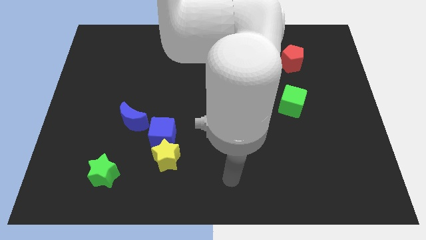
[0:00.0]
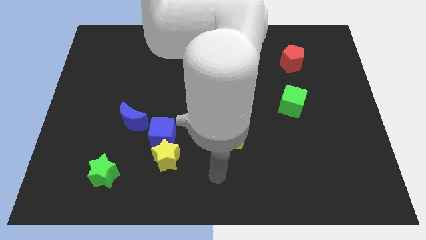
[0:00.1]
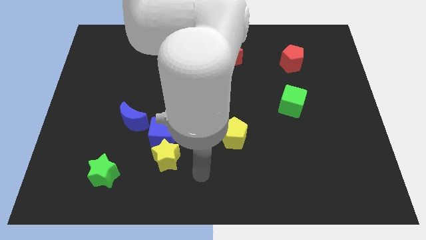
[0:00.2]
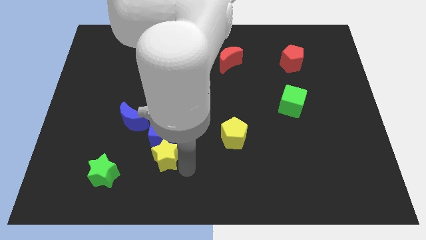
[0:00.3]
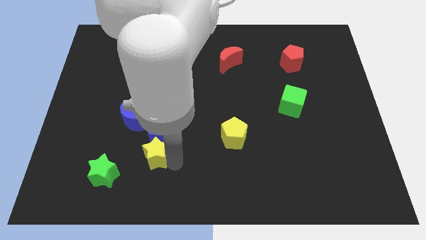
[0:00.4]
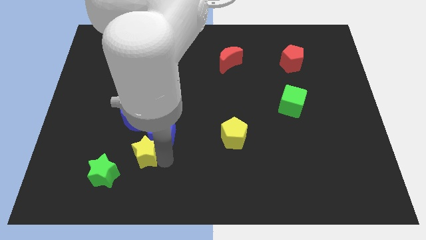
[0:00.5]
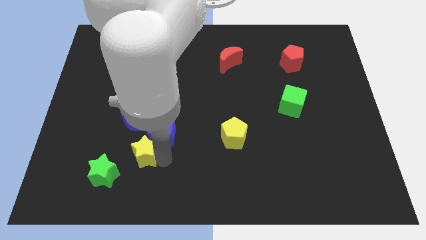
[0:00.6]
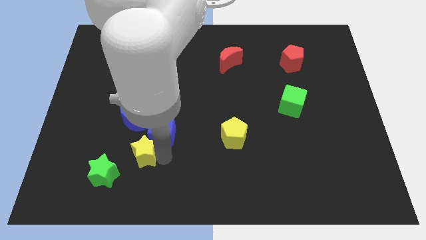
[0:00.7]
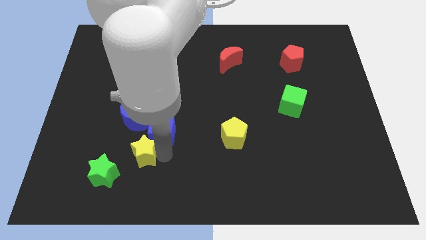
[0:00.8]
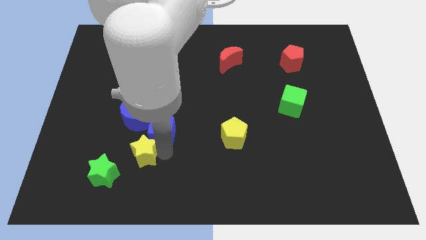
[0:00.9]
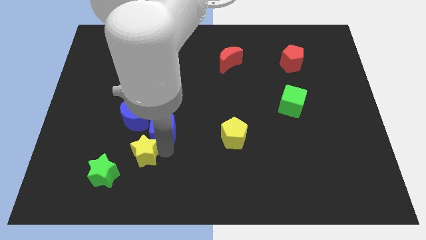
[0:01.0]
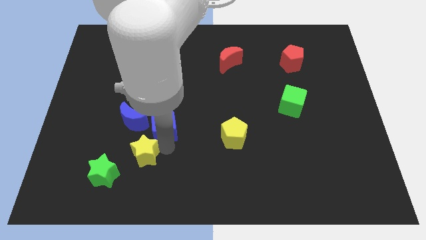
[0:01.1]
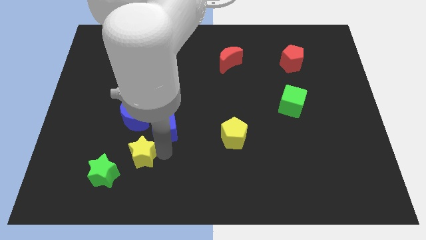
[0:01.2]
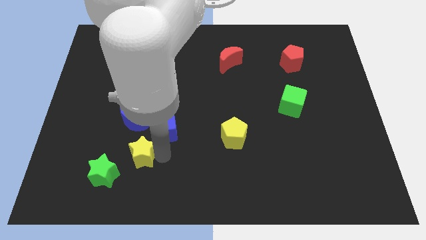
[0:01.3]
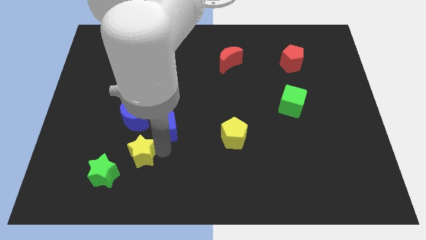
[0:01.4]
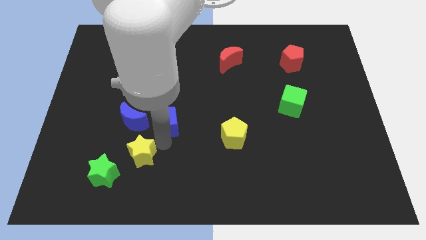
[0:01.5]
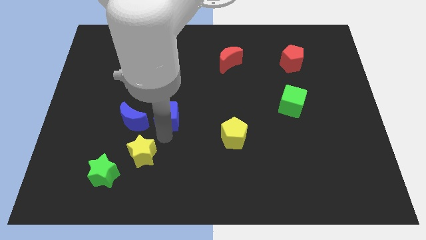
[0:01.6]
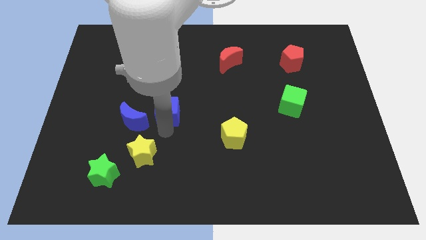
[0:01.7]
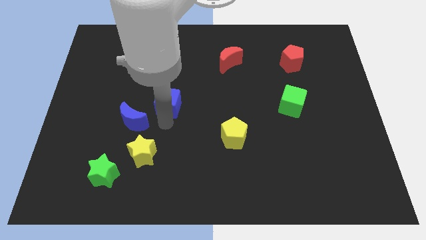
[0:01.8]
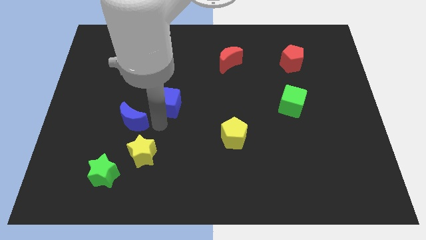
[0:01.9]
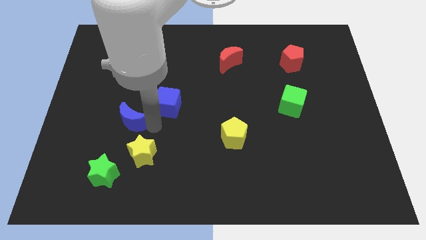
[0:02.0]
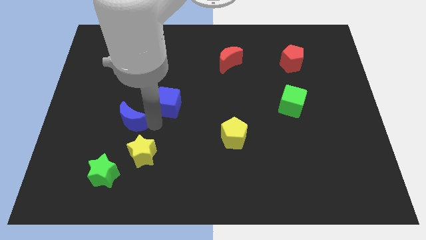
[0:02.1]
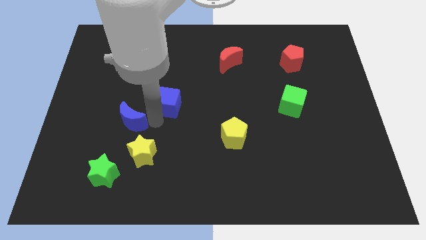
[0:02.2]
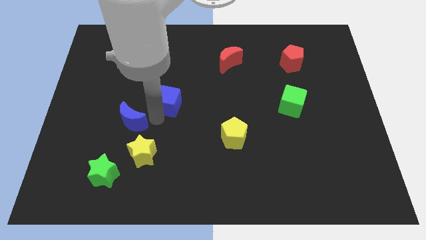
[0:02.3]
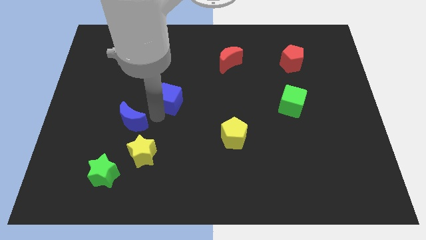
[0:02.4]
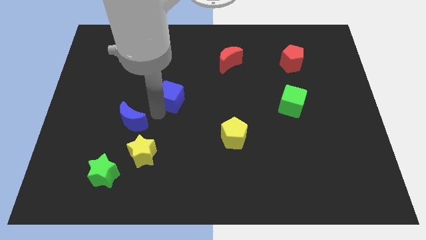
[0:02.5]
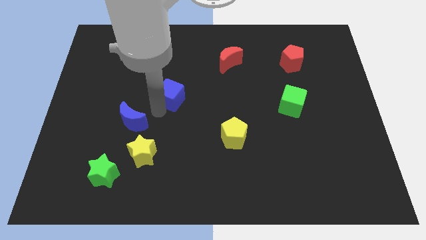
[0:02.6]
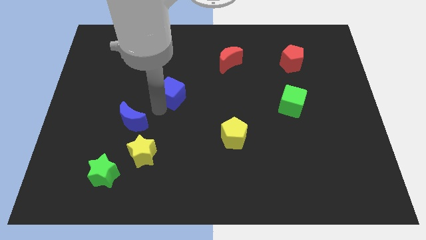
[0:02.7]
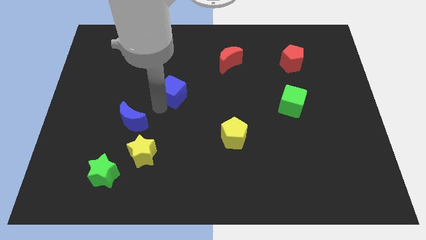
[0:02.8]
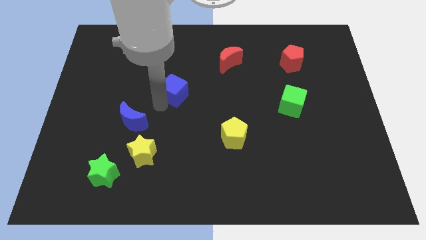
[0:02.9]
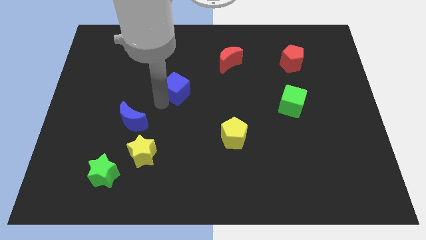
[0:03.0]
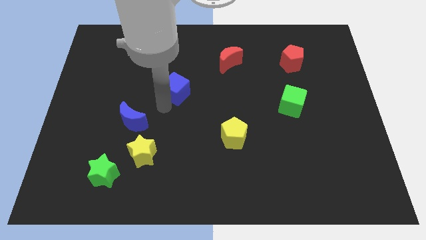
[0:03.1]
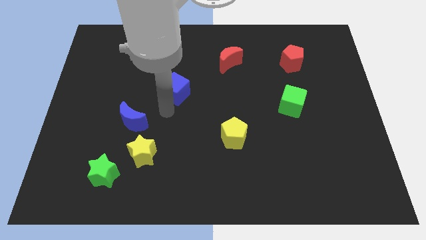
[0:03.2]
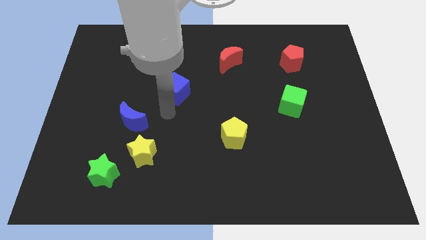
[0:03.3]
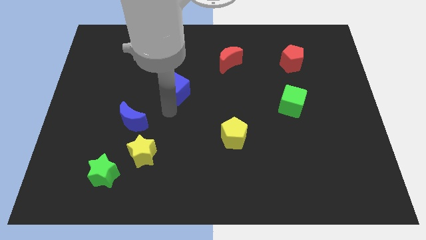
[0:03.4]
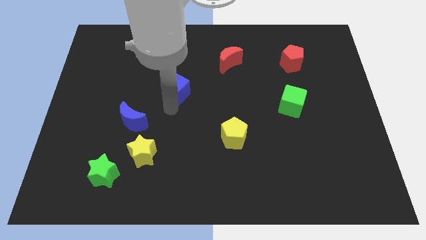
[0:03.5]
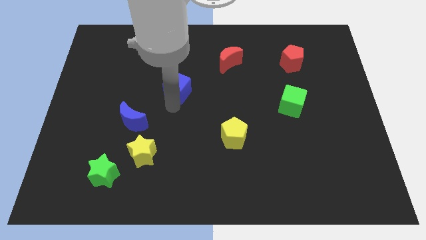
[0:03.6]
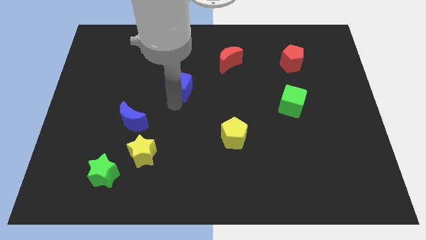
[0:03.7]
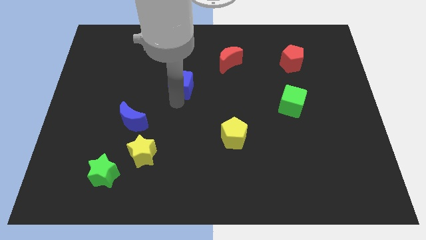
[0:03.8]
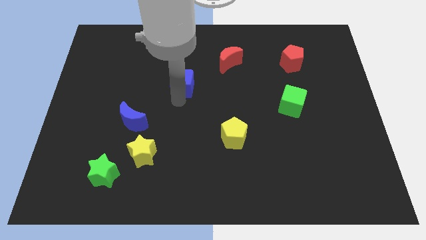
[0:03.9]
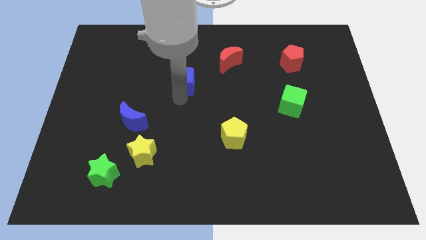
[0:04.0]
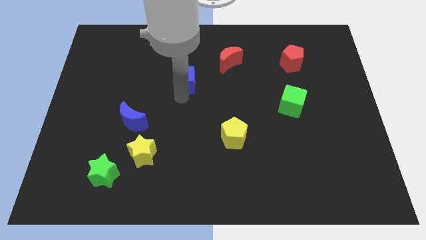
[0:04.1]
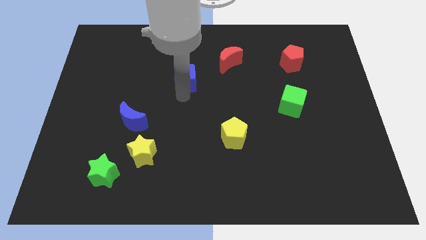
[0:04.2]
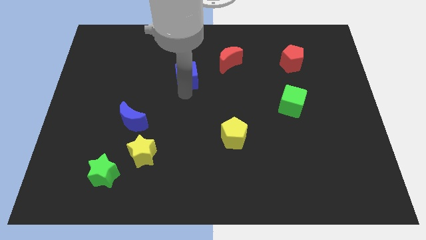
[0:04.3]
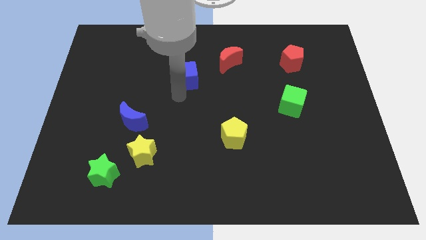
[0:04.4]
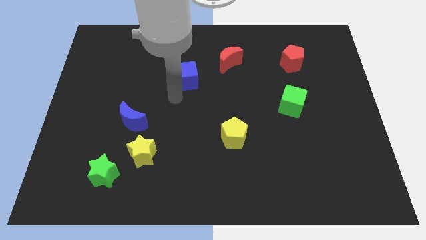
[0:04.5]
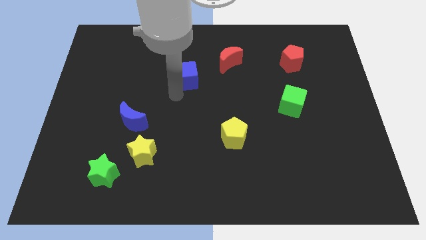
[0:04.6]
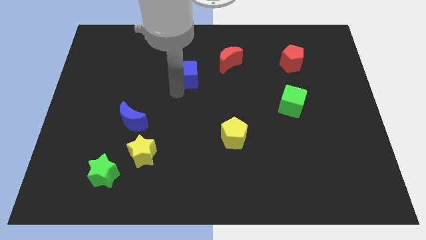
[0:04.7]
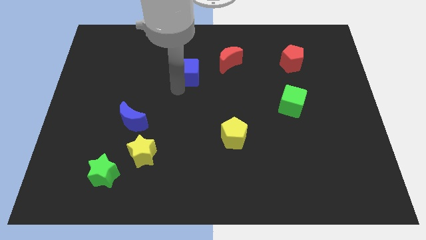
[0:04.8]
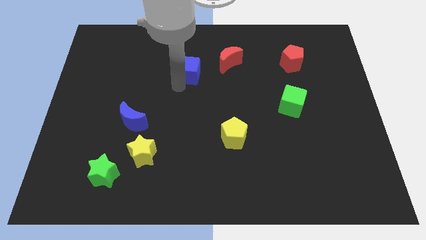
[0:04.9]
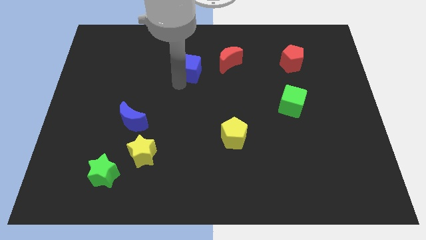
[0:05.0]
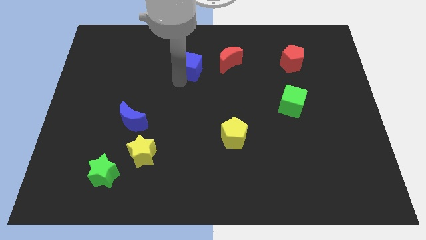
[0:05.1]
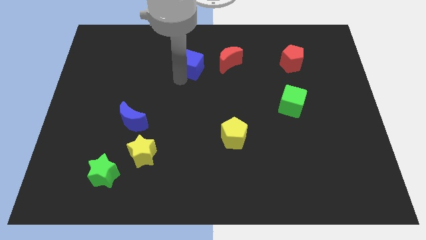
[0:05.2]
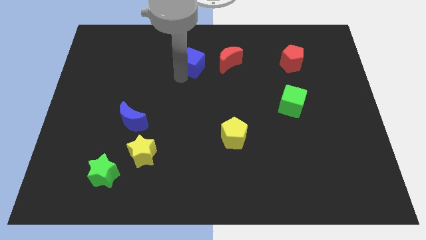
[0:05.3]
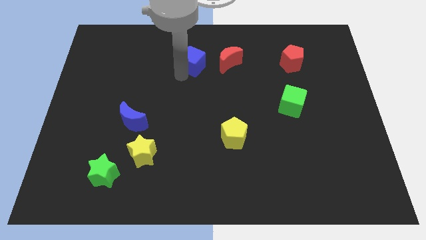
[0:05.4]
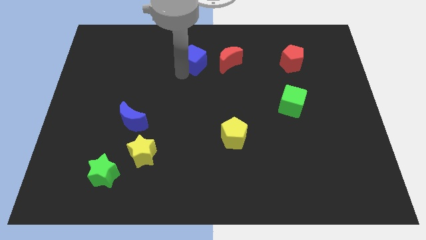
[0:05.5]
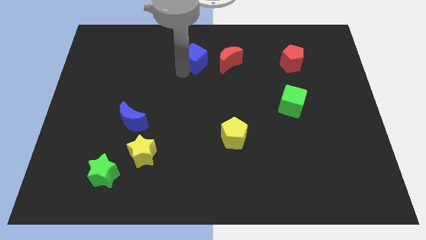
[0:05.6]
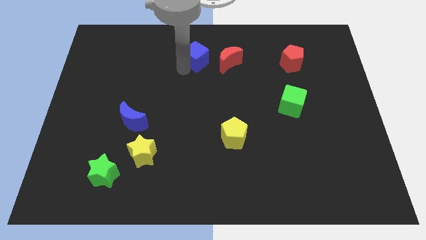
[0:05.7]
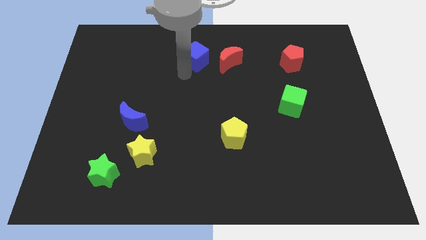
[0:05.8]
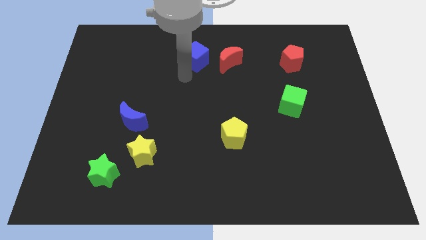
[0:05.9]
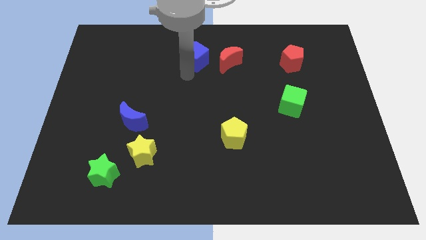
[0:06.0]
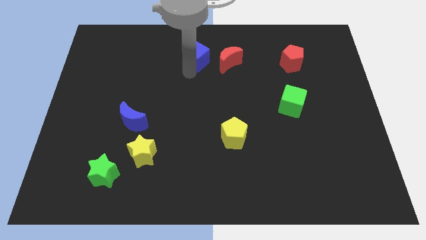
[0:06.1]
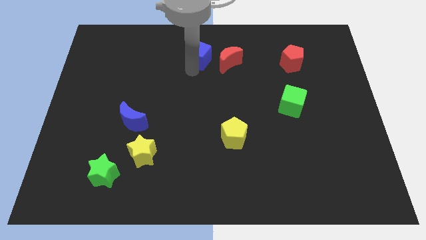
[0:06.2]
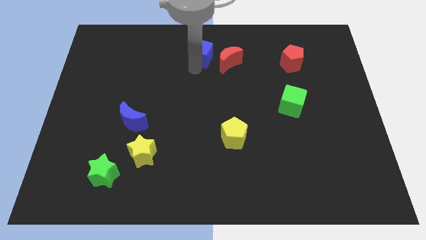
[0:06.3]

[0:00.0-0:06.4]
move the blue cube to the towards your base

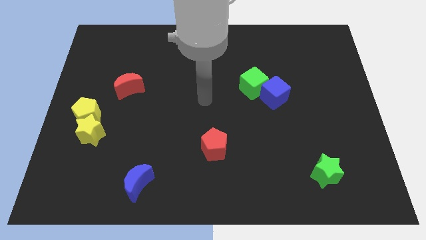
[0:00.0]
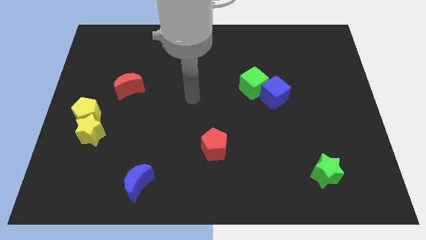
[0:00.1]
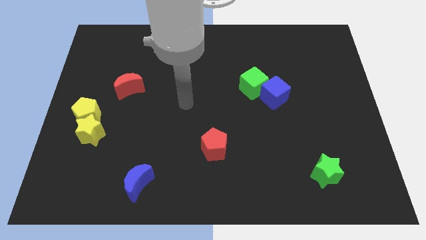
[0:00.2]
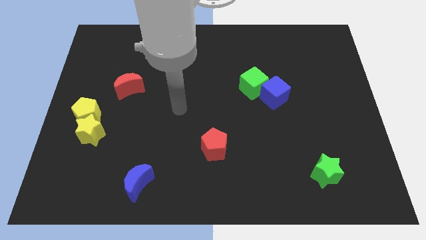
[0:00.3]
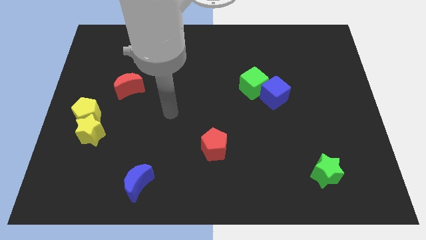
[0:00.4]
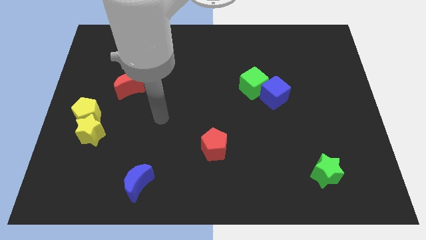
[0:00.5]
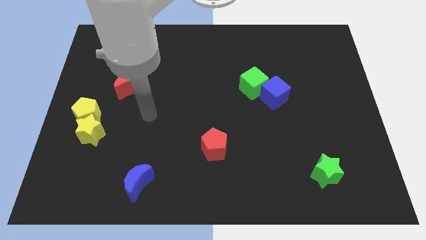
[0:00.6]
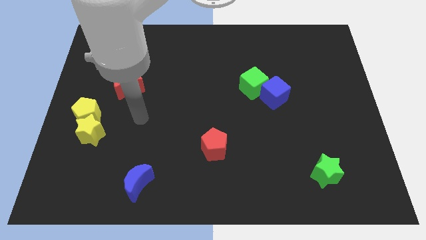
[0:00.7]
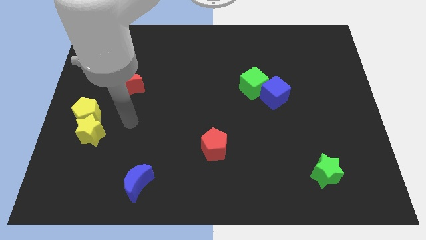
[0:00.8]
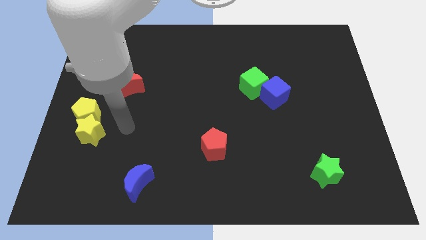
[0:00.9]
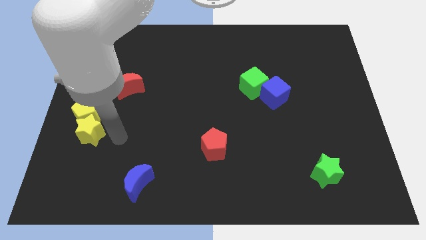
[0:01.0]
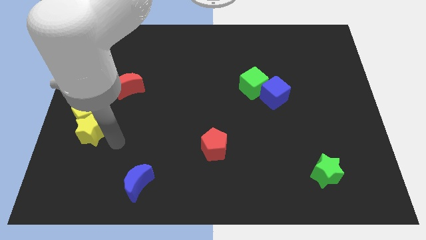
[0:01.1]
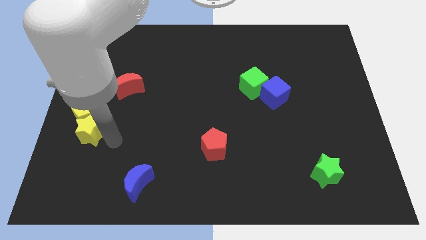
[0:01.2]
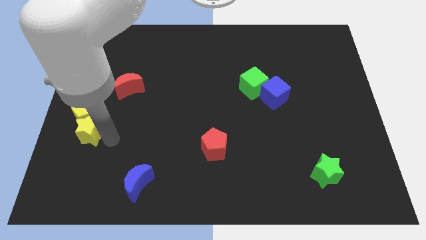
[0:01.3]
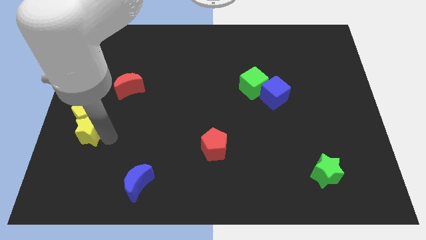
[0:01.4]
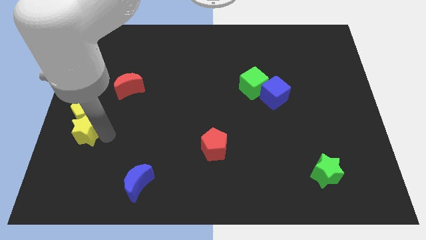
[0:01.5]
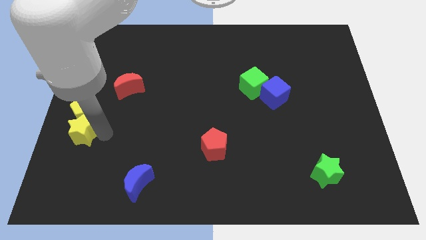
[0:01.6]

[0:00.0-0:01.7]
push the yellow star to the center left
